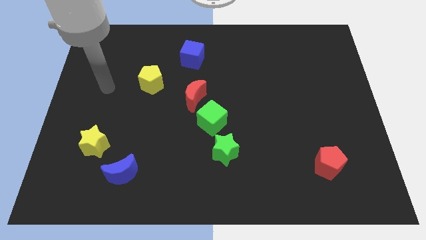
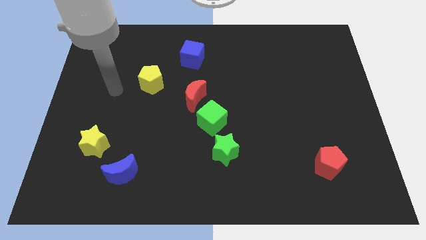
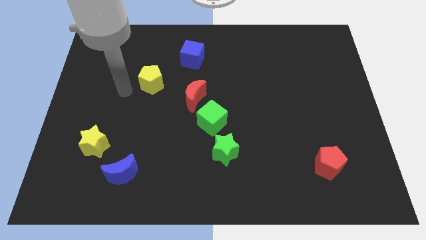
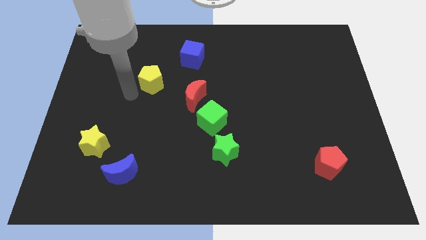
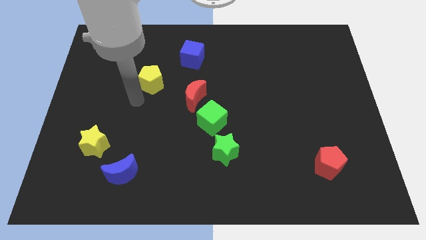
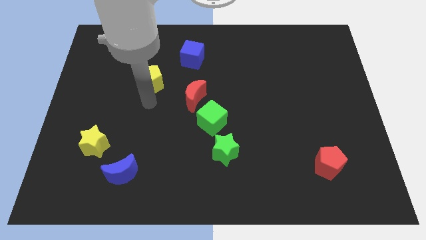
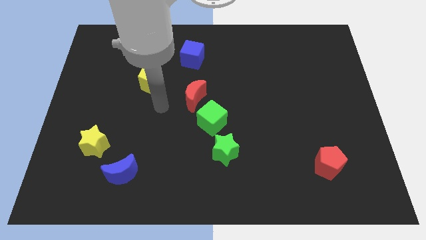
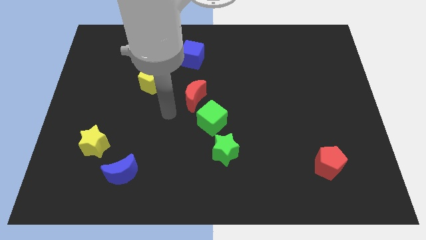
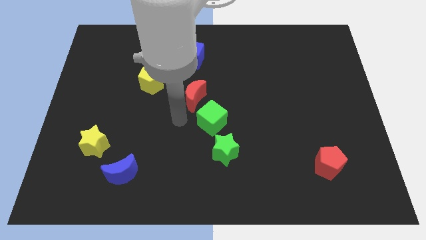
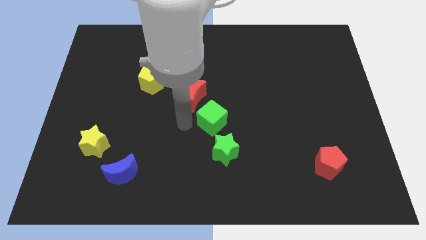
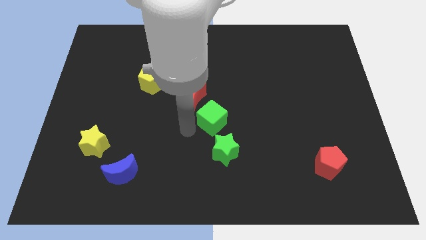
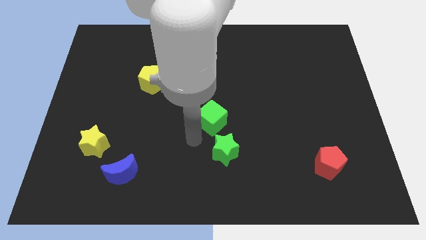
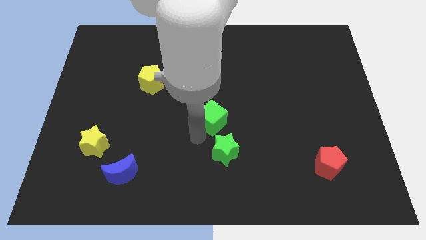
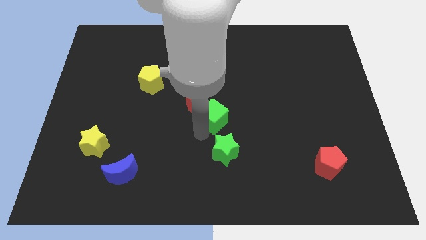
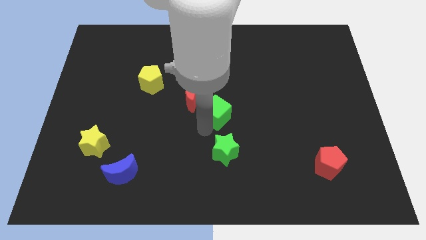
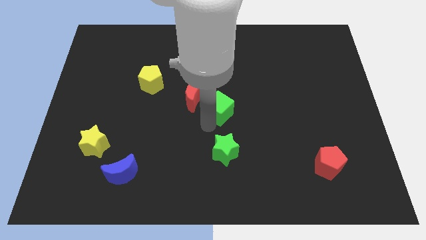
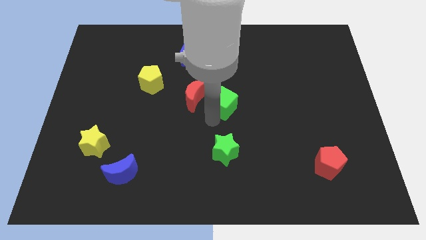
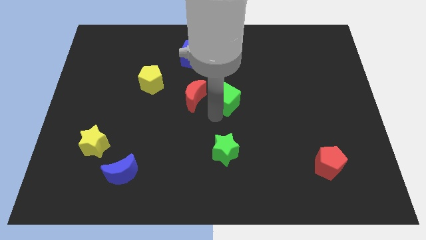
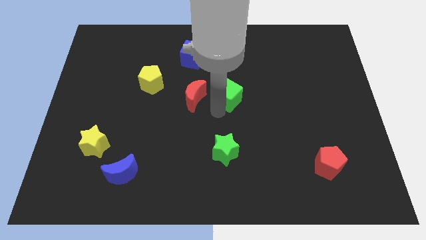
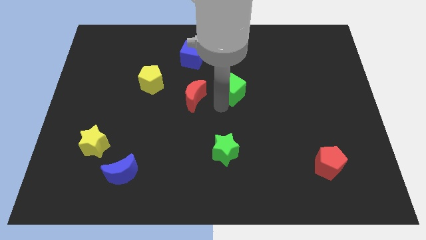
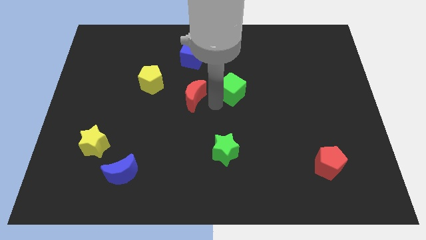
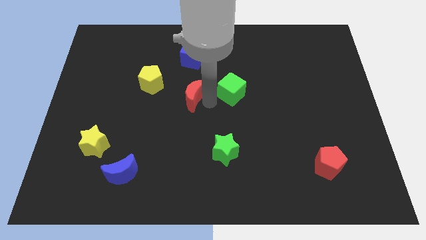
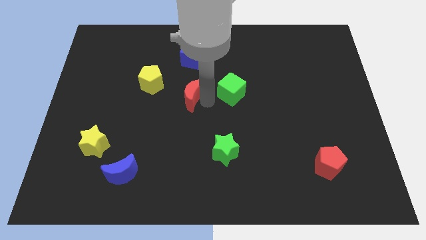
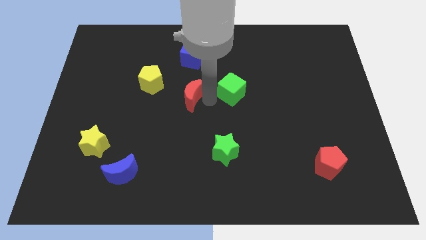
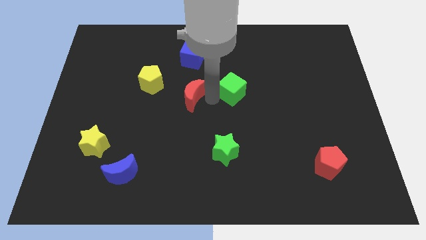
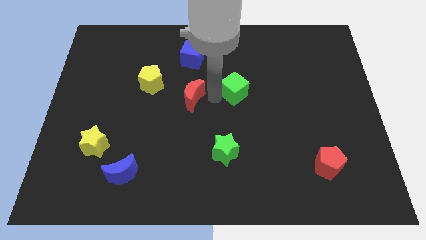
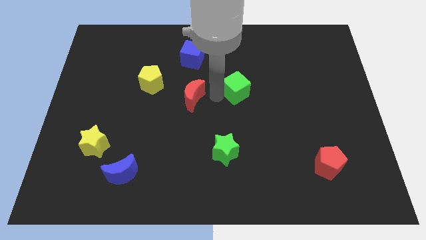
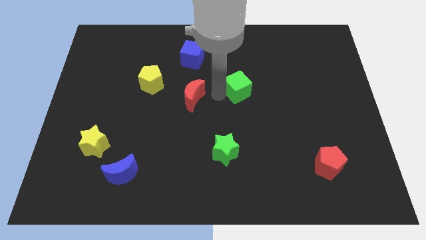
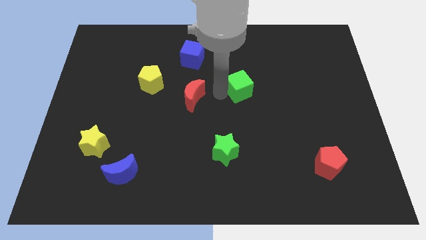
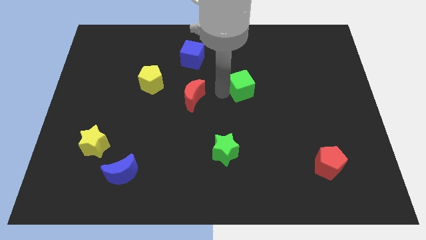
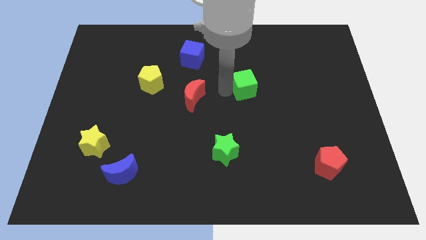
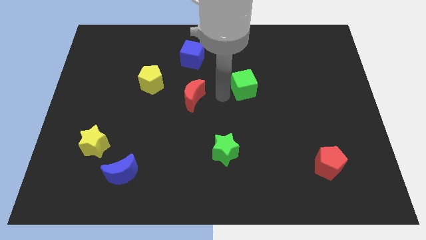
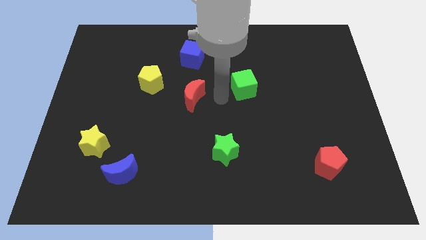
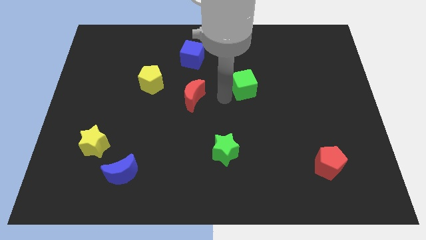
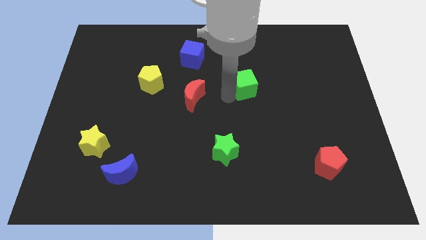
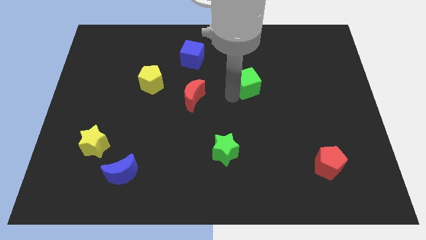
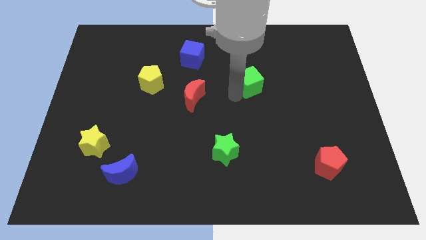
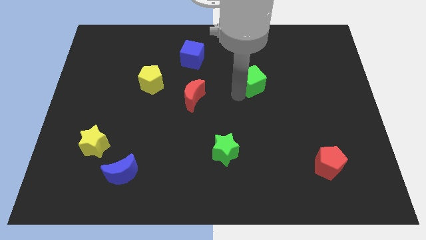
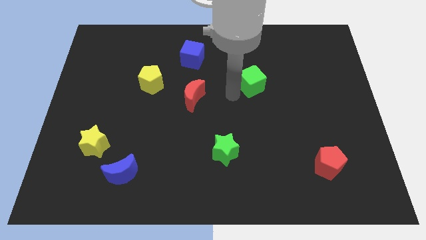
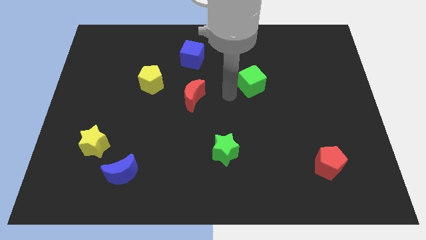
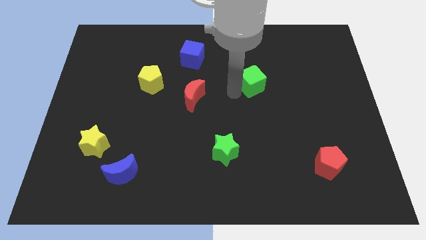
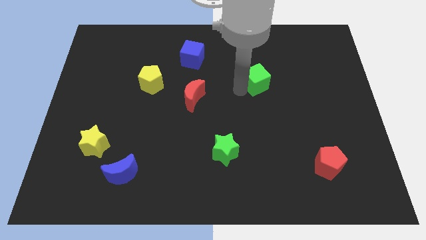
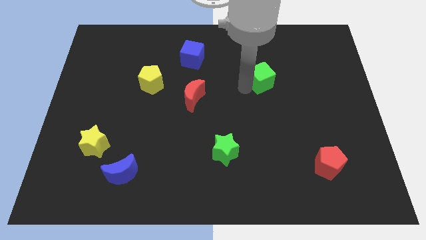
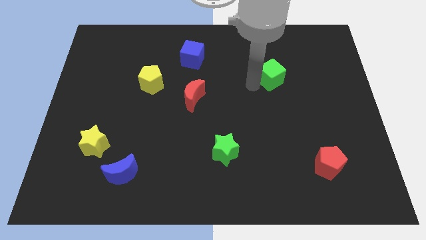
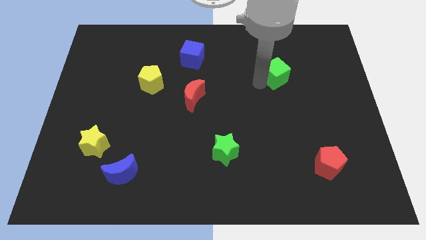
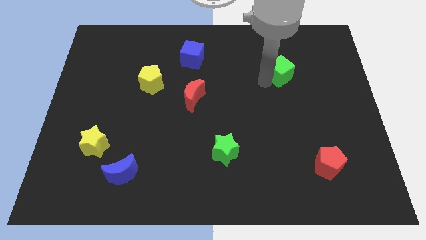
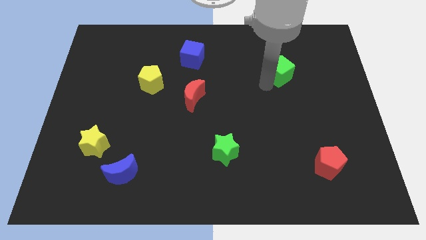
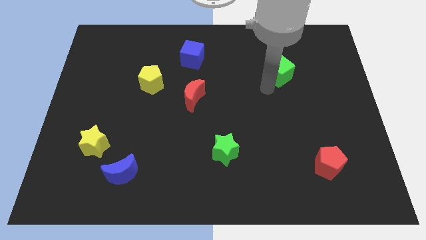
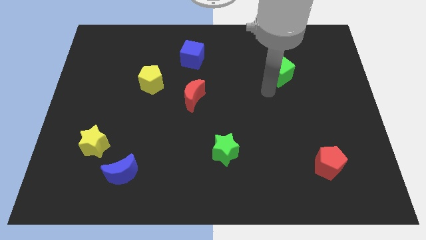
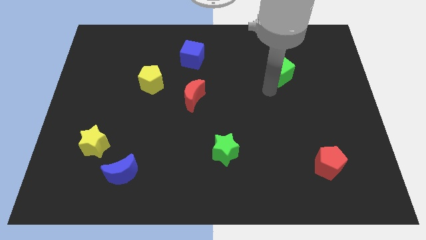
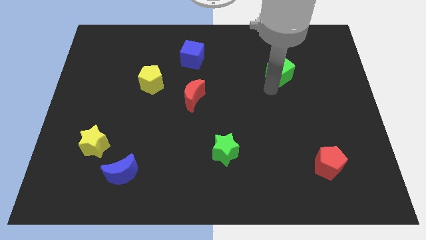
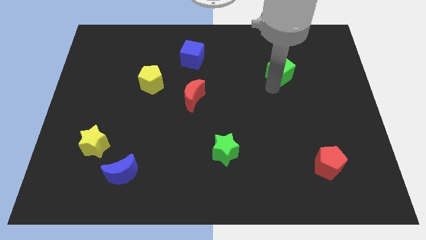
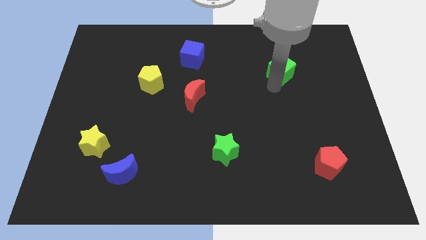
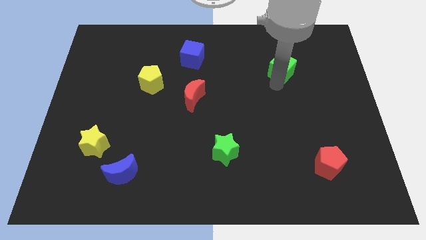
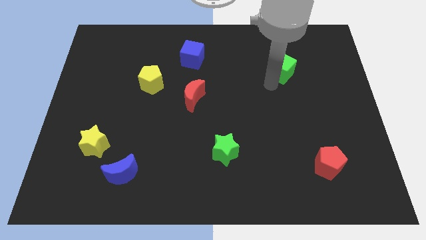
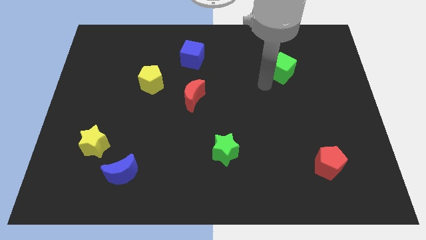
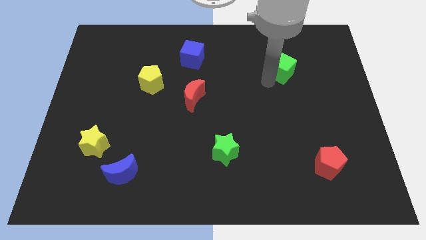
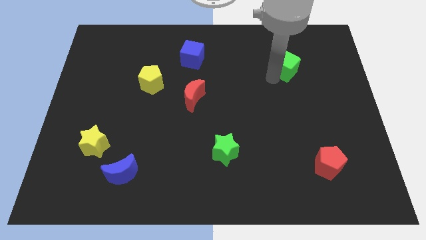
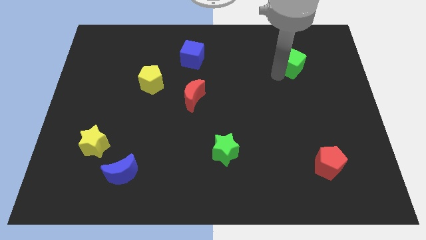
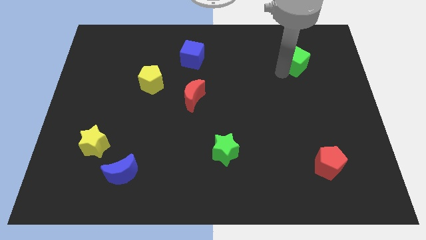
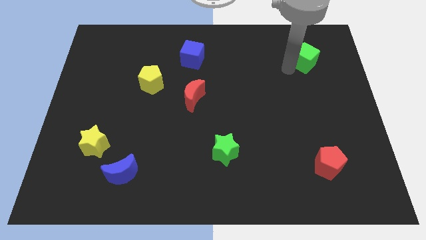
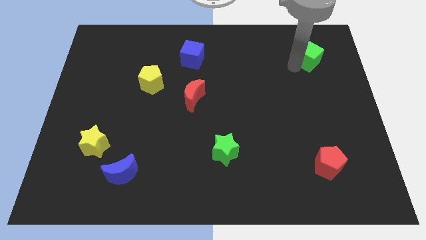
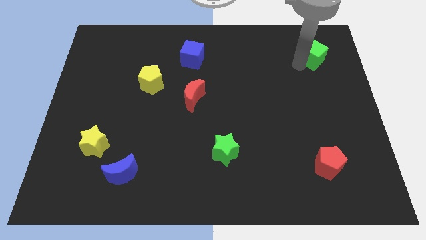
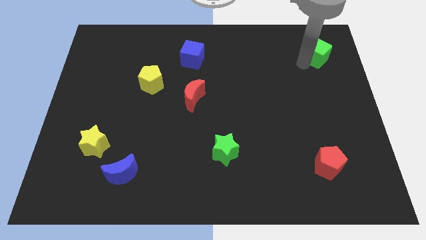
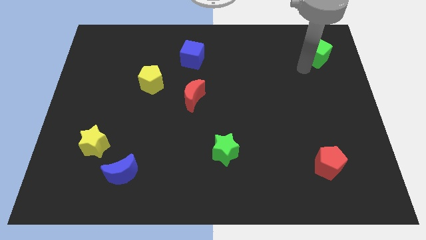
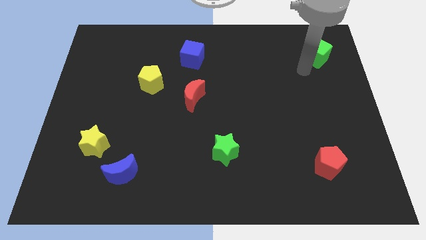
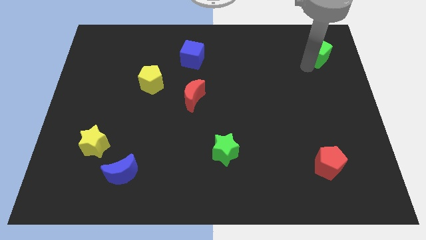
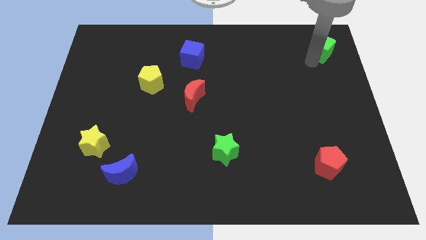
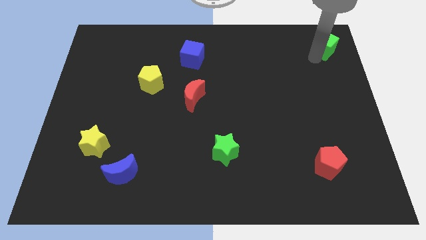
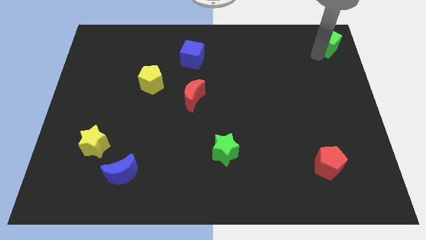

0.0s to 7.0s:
put the green cube to the top right
